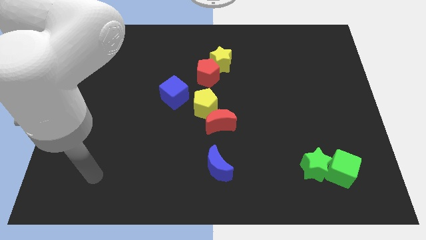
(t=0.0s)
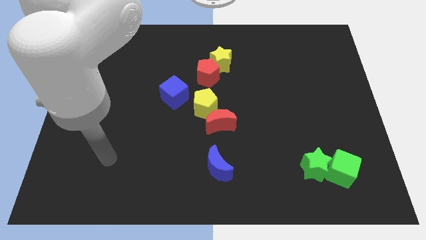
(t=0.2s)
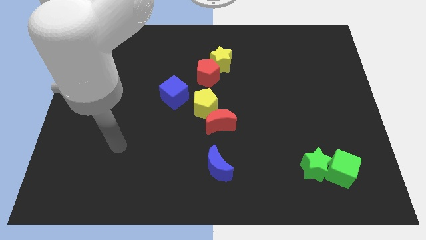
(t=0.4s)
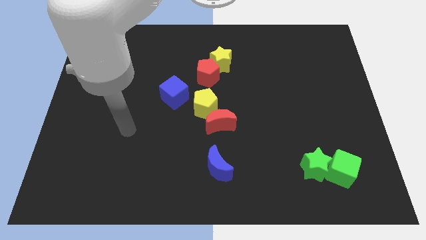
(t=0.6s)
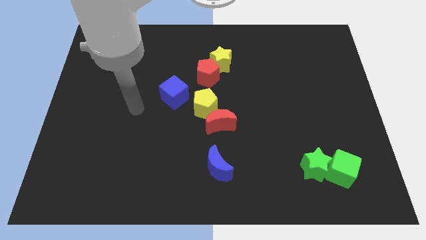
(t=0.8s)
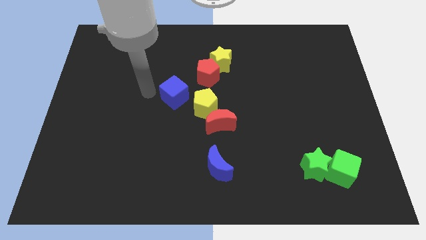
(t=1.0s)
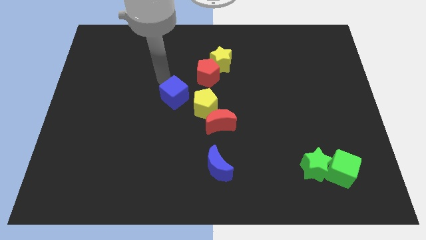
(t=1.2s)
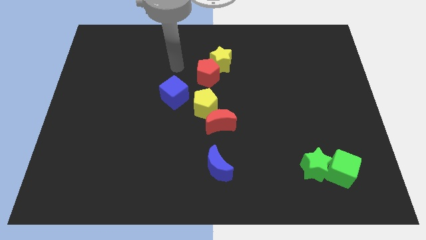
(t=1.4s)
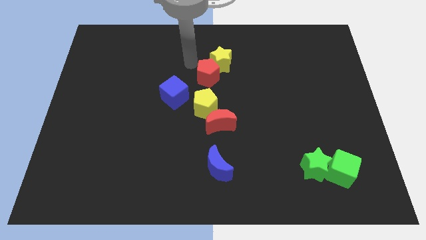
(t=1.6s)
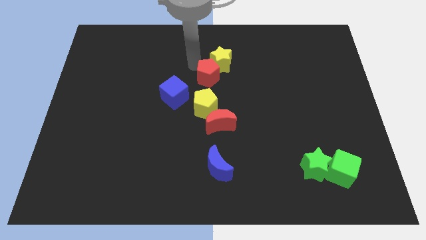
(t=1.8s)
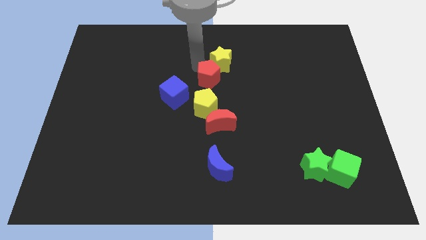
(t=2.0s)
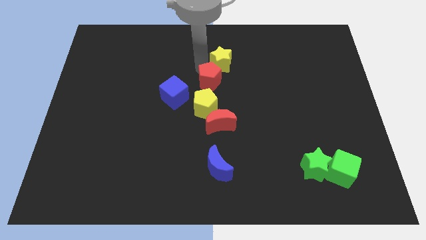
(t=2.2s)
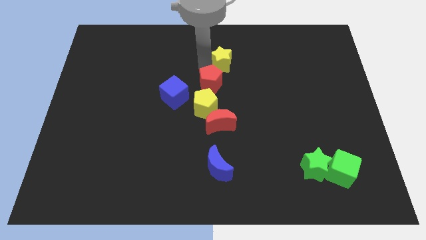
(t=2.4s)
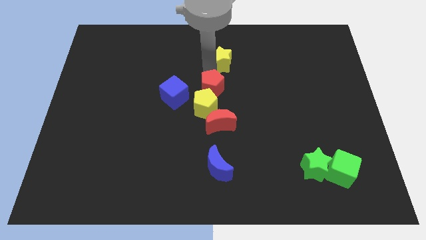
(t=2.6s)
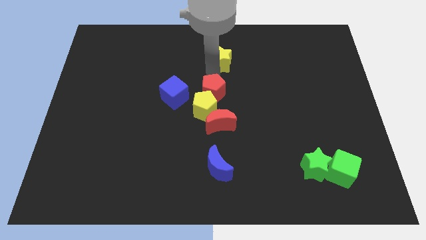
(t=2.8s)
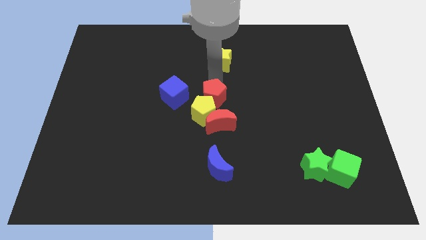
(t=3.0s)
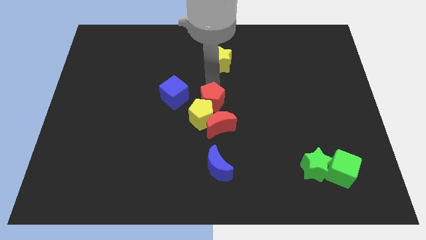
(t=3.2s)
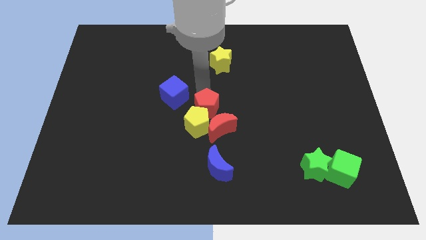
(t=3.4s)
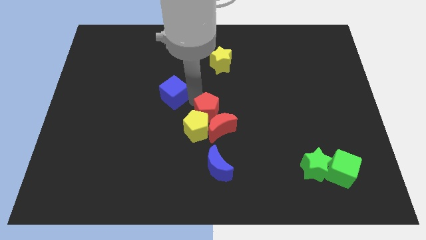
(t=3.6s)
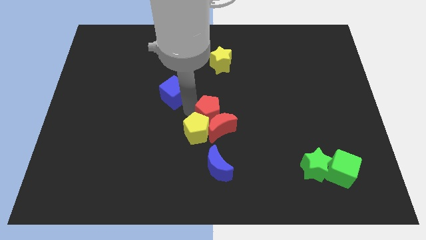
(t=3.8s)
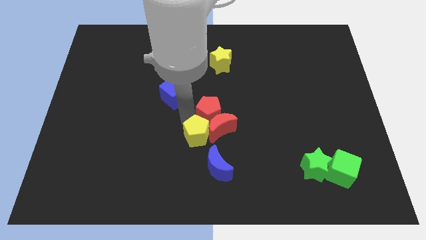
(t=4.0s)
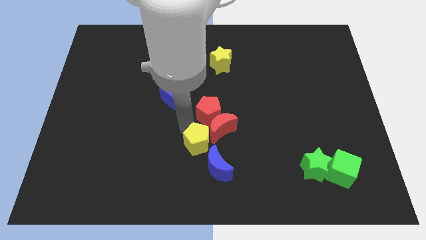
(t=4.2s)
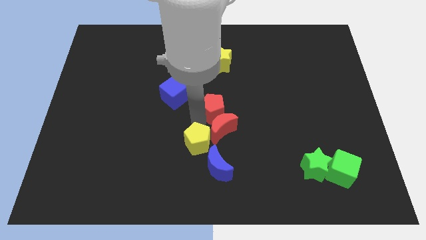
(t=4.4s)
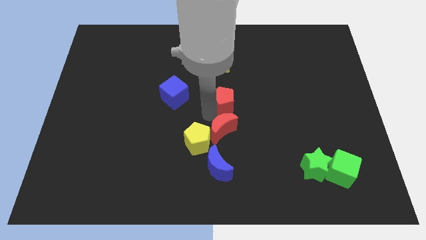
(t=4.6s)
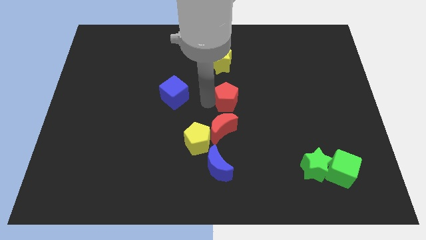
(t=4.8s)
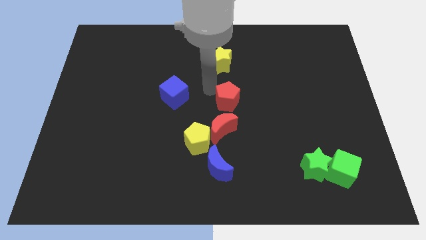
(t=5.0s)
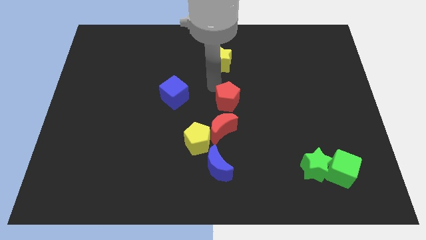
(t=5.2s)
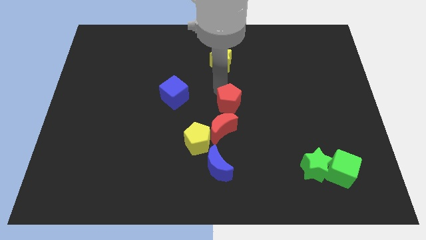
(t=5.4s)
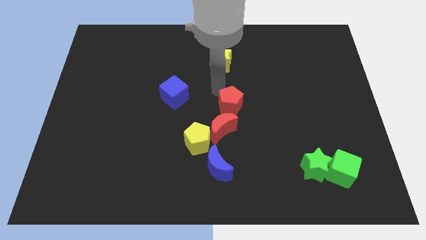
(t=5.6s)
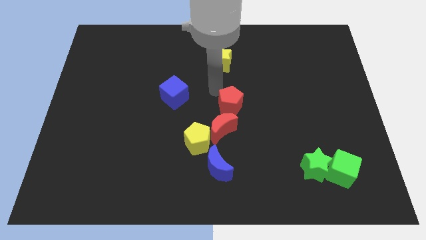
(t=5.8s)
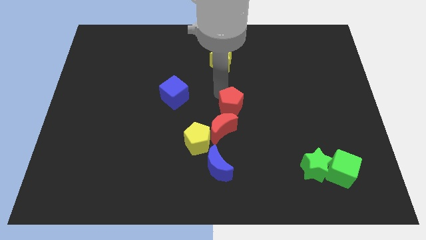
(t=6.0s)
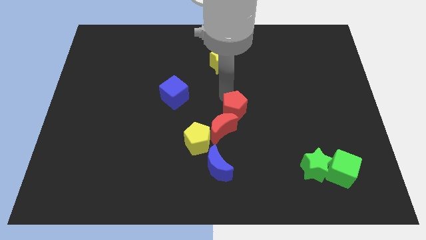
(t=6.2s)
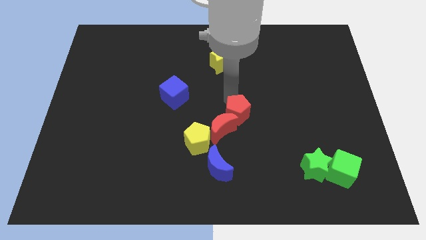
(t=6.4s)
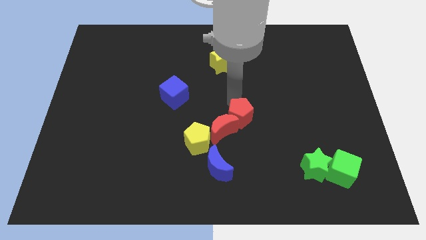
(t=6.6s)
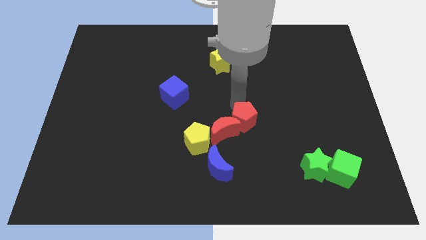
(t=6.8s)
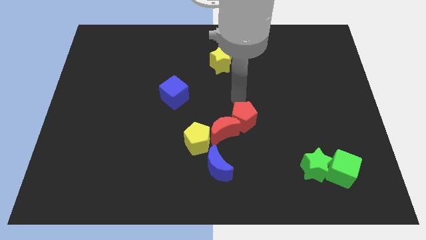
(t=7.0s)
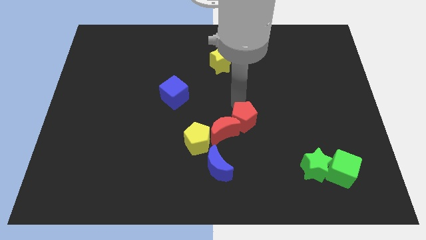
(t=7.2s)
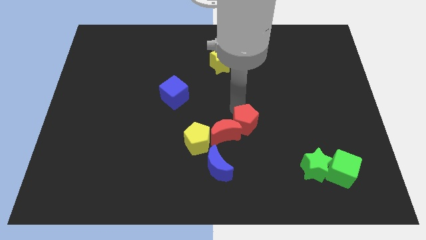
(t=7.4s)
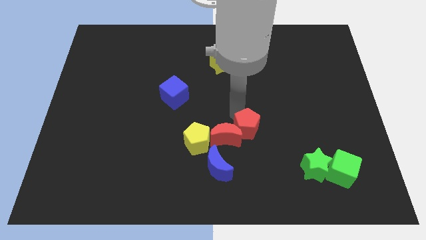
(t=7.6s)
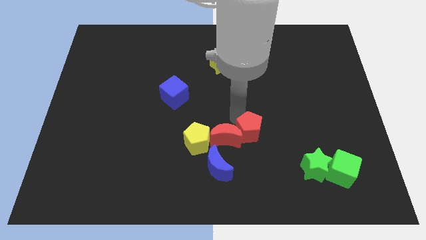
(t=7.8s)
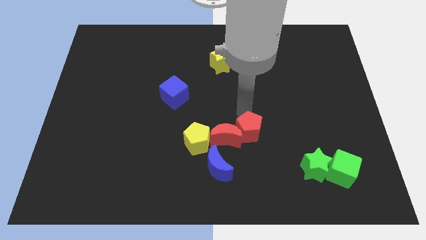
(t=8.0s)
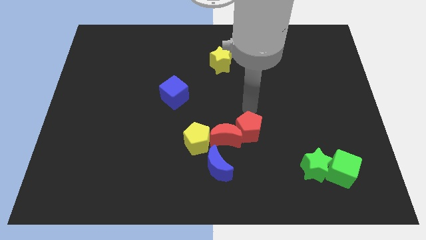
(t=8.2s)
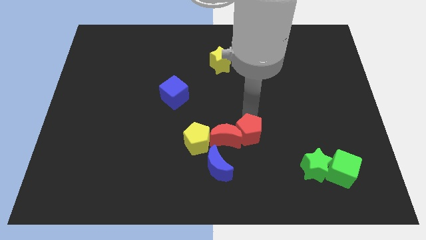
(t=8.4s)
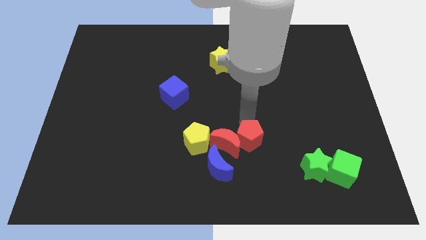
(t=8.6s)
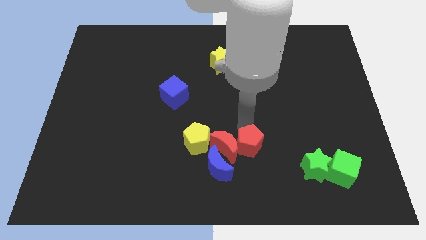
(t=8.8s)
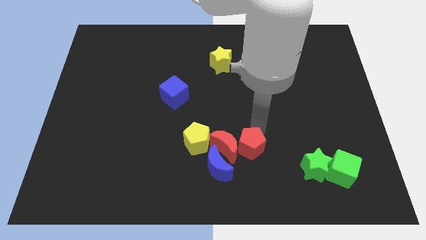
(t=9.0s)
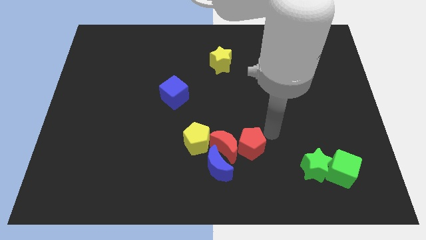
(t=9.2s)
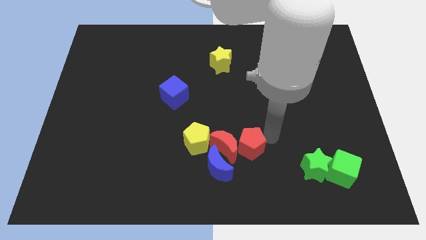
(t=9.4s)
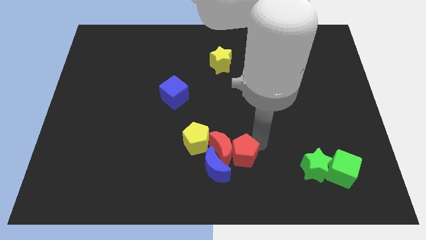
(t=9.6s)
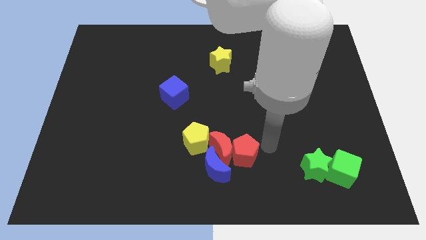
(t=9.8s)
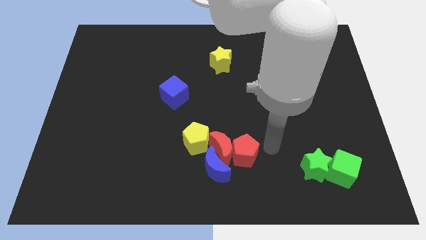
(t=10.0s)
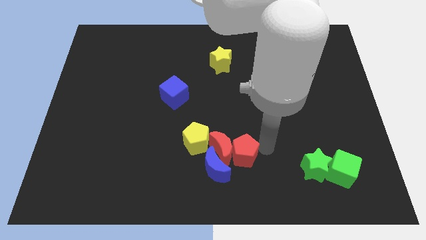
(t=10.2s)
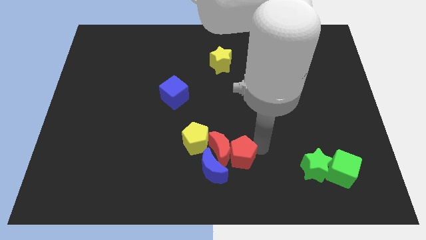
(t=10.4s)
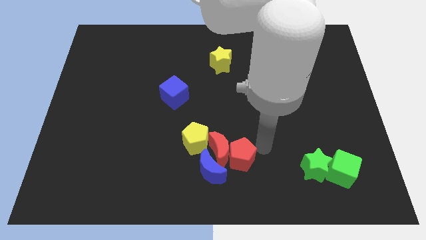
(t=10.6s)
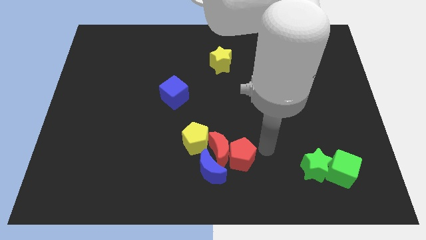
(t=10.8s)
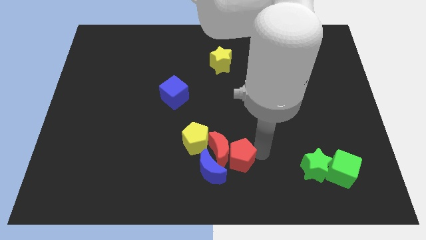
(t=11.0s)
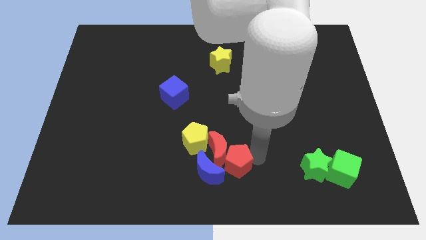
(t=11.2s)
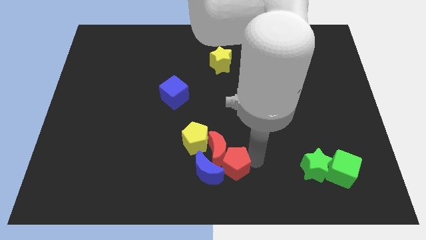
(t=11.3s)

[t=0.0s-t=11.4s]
push the red pentagon next to the blue moon
